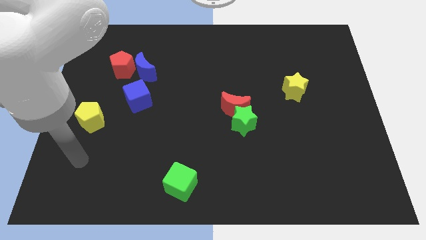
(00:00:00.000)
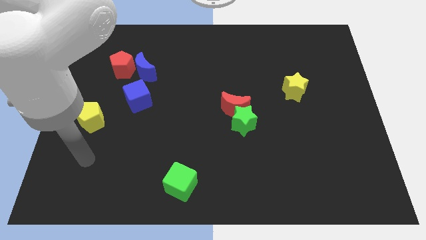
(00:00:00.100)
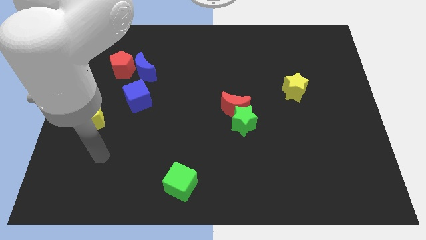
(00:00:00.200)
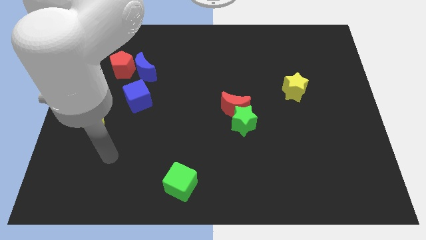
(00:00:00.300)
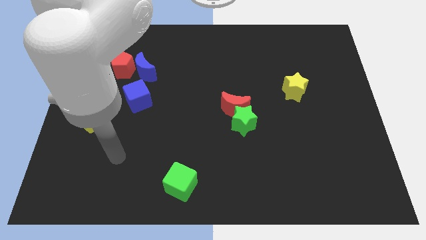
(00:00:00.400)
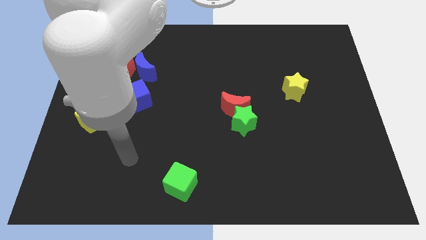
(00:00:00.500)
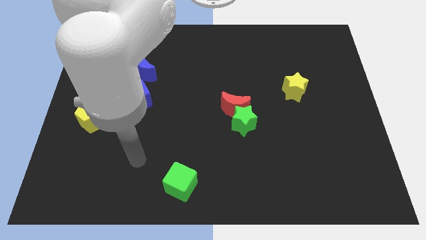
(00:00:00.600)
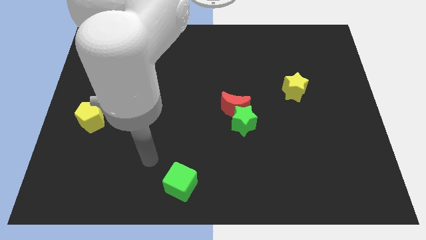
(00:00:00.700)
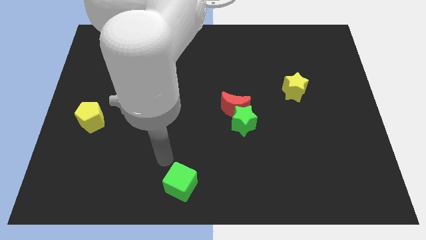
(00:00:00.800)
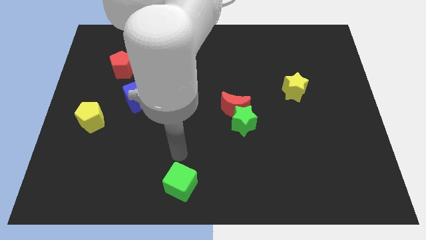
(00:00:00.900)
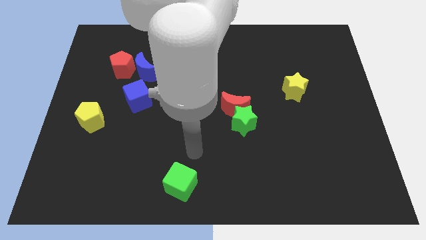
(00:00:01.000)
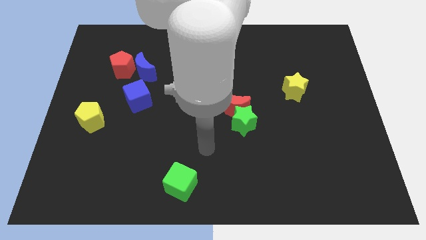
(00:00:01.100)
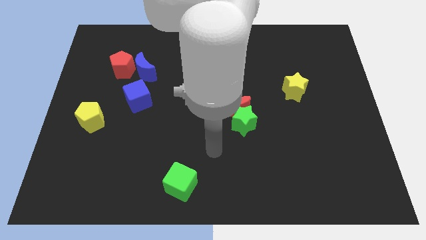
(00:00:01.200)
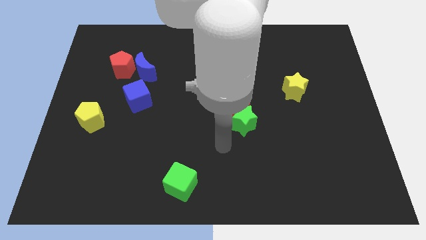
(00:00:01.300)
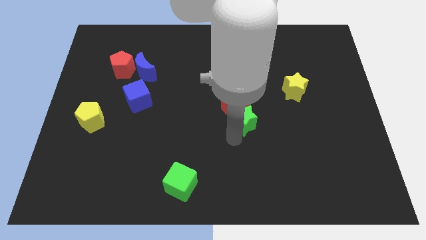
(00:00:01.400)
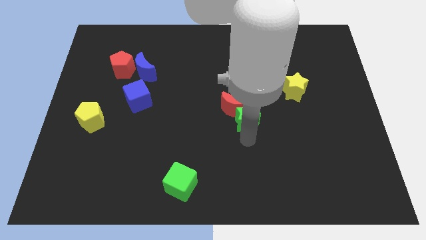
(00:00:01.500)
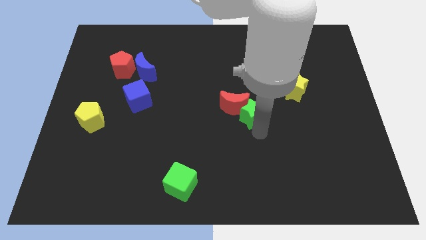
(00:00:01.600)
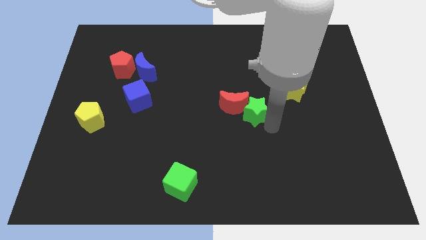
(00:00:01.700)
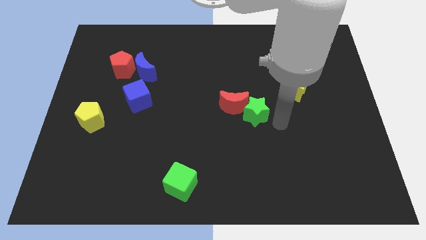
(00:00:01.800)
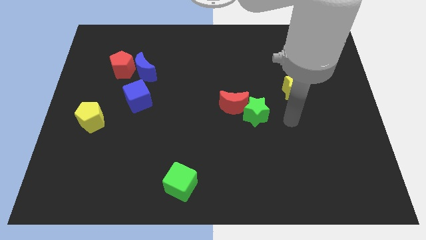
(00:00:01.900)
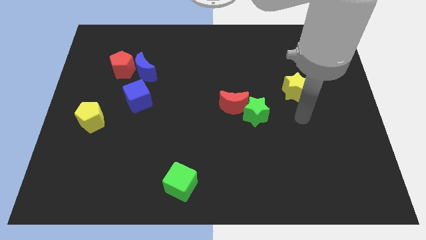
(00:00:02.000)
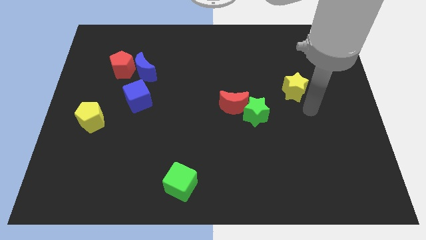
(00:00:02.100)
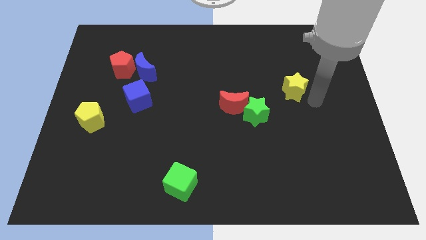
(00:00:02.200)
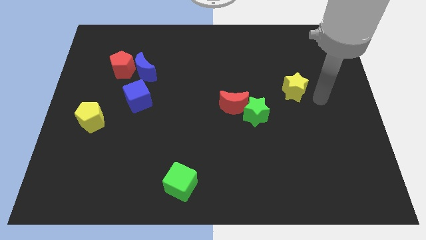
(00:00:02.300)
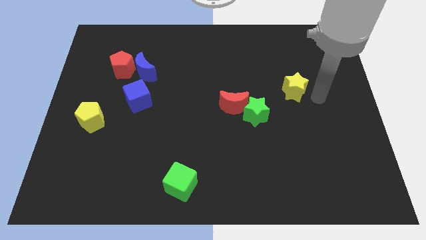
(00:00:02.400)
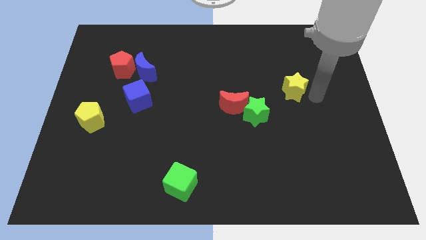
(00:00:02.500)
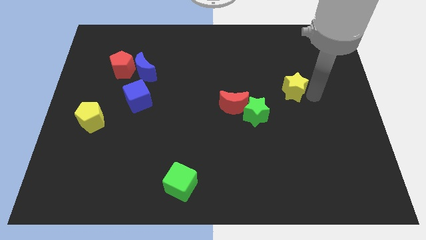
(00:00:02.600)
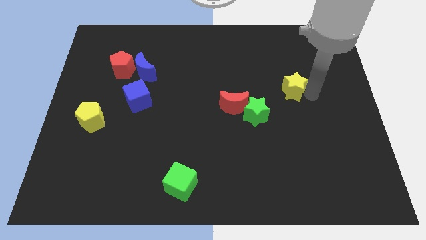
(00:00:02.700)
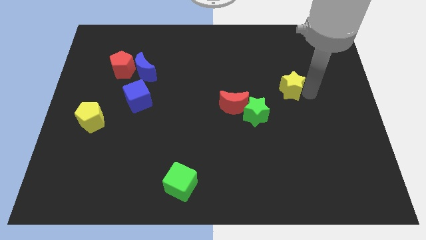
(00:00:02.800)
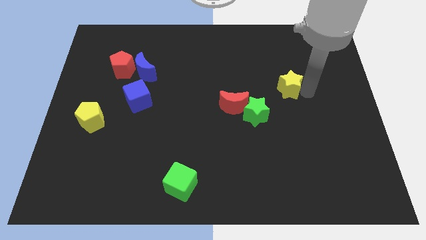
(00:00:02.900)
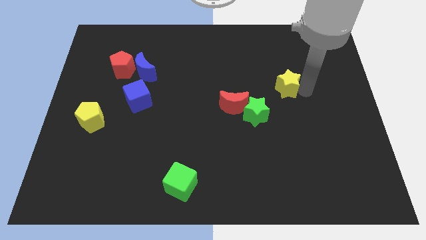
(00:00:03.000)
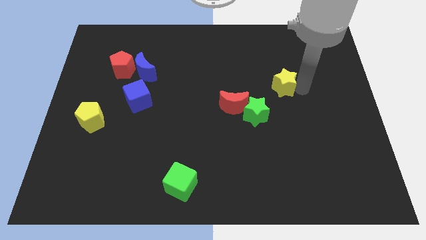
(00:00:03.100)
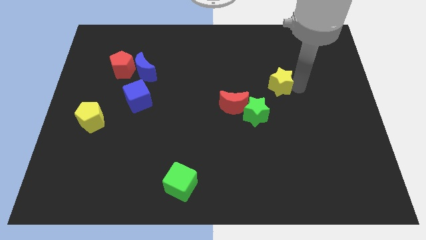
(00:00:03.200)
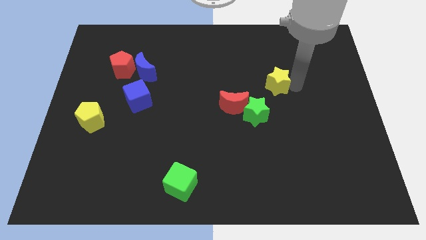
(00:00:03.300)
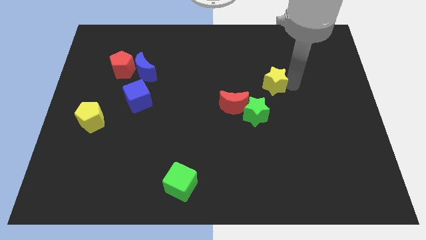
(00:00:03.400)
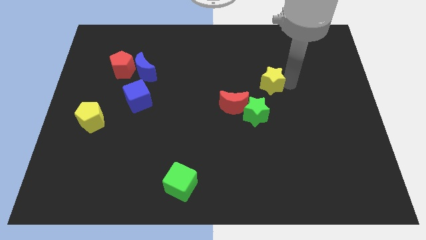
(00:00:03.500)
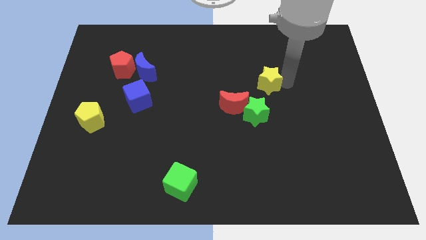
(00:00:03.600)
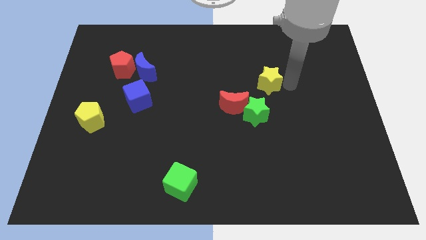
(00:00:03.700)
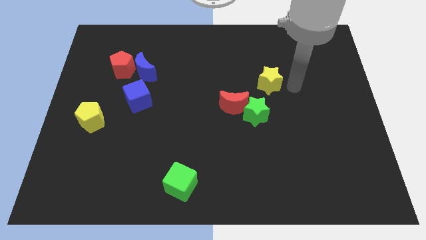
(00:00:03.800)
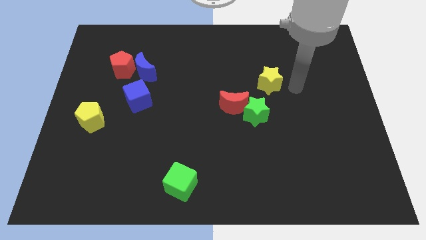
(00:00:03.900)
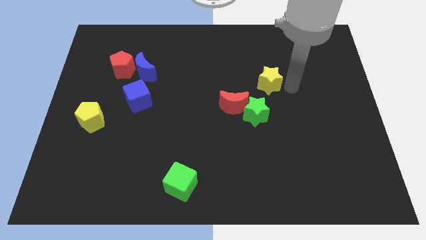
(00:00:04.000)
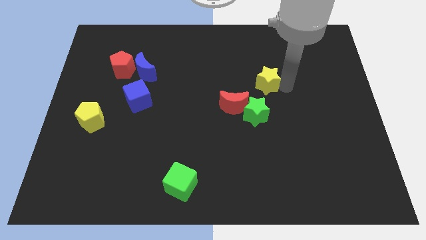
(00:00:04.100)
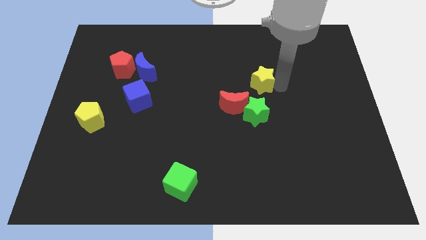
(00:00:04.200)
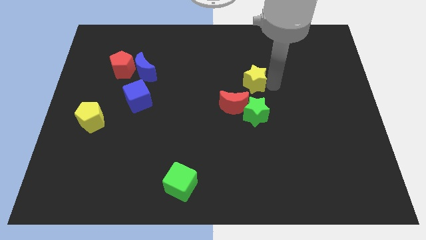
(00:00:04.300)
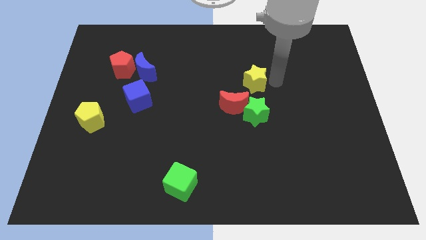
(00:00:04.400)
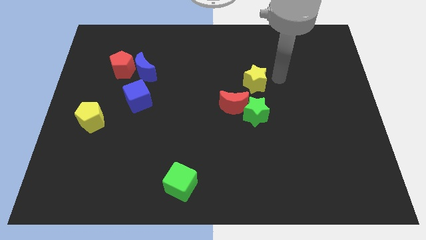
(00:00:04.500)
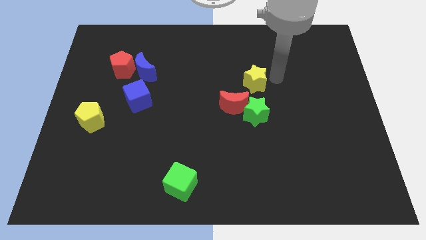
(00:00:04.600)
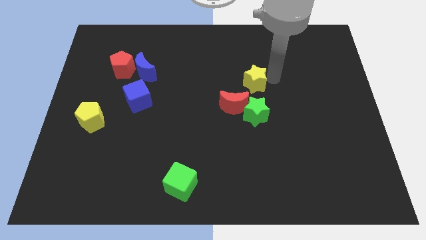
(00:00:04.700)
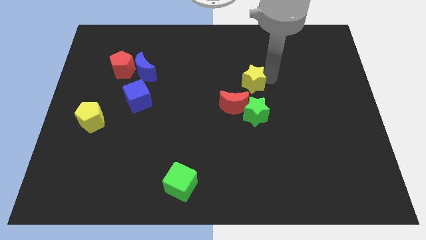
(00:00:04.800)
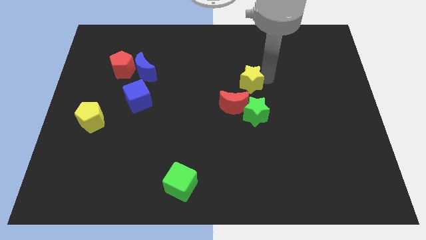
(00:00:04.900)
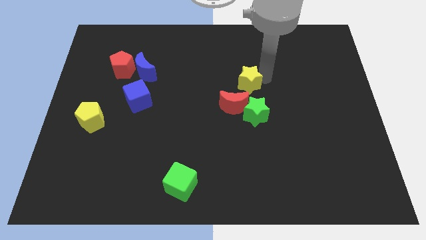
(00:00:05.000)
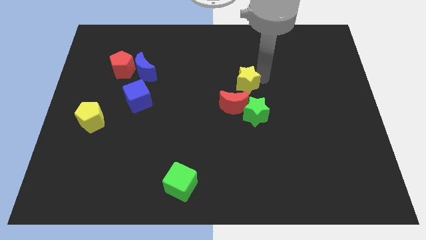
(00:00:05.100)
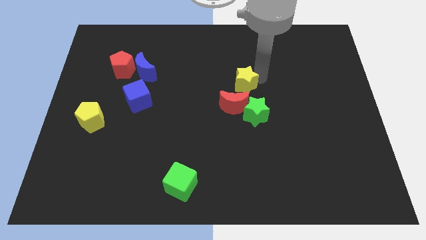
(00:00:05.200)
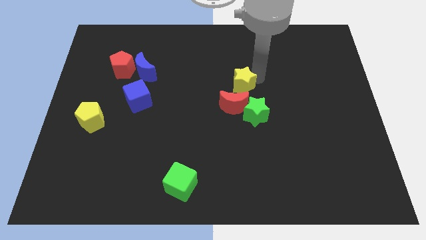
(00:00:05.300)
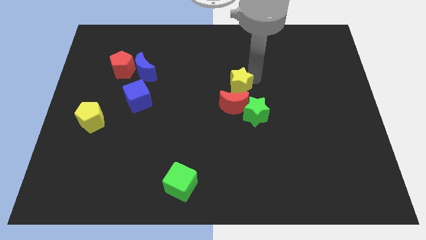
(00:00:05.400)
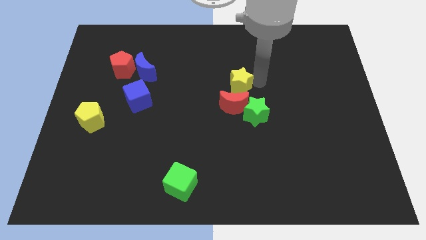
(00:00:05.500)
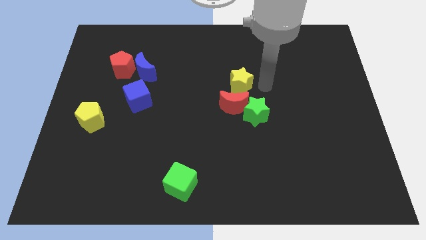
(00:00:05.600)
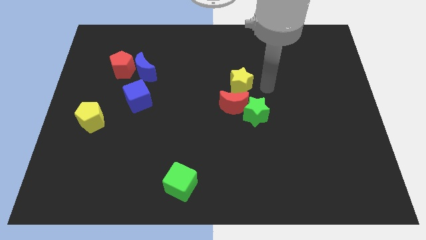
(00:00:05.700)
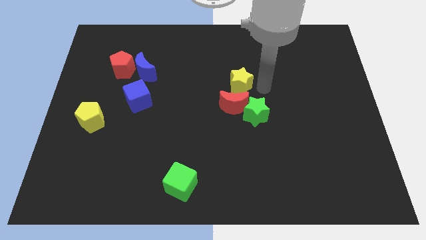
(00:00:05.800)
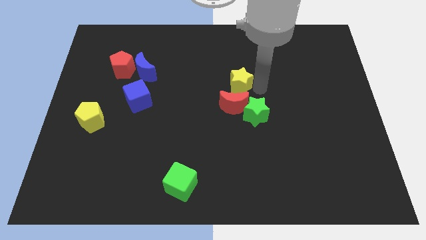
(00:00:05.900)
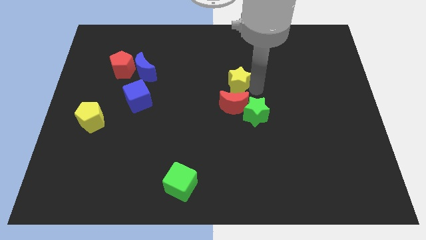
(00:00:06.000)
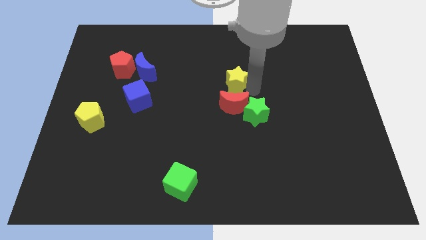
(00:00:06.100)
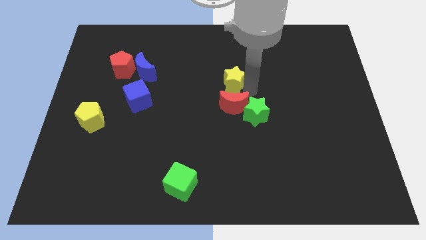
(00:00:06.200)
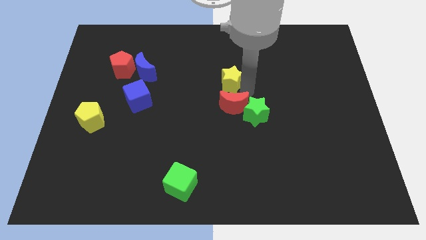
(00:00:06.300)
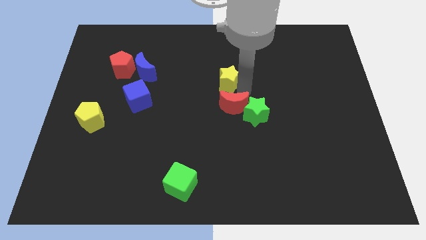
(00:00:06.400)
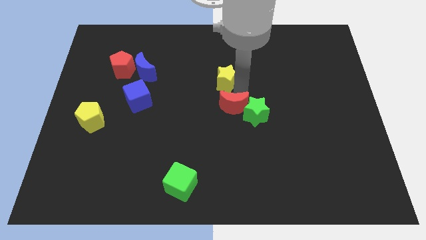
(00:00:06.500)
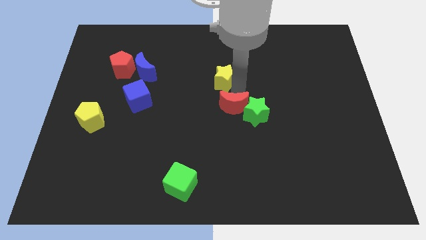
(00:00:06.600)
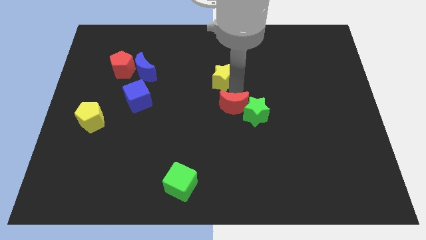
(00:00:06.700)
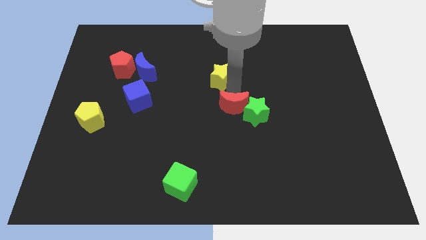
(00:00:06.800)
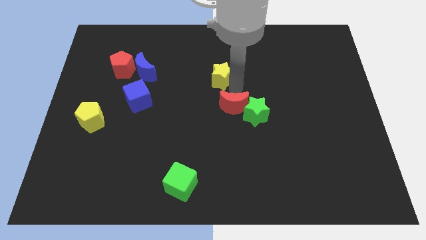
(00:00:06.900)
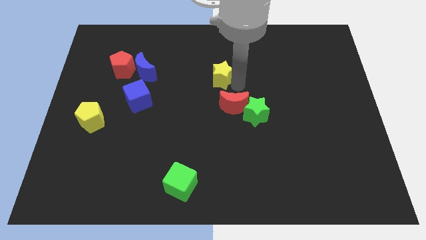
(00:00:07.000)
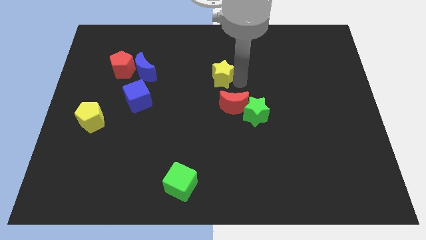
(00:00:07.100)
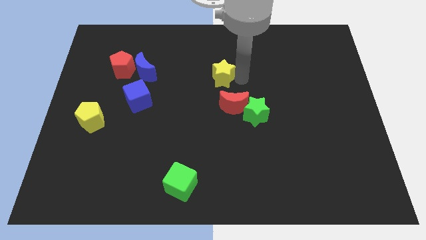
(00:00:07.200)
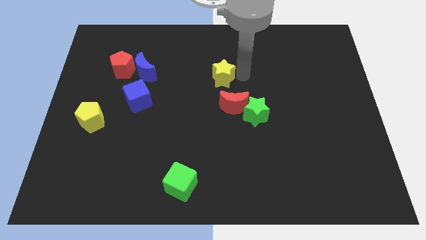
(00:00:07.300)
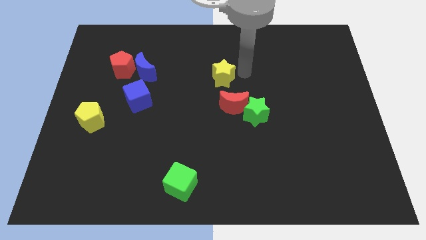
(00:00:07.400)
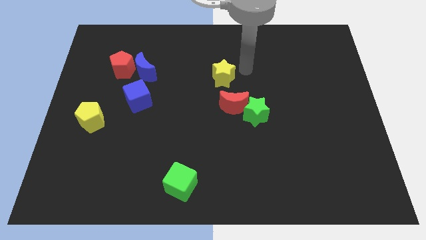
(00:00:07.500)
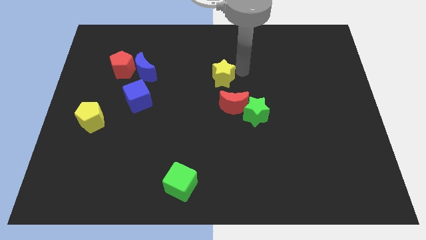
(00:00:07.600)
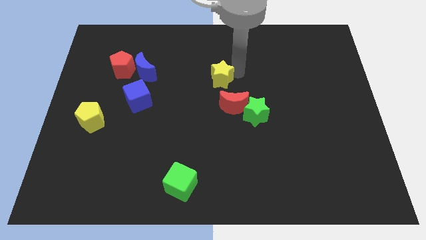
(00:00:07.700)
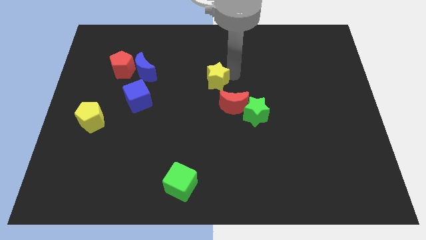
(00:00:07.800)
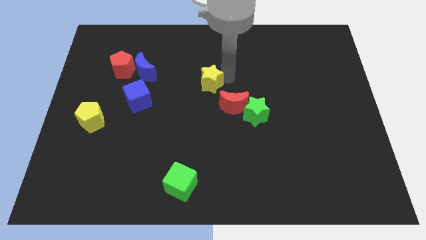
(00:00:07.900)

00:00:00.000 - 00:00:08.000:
move the yellow star to the left

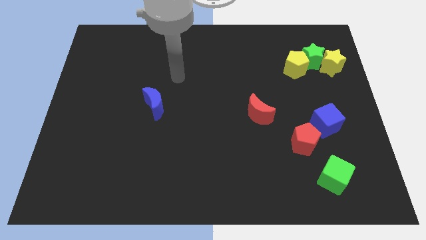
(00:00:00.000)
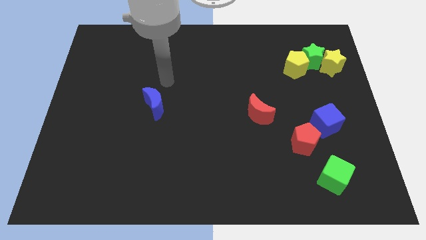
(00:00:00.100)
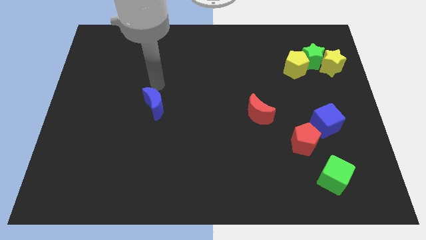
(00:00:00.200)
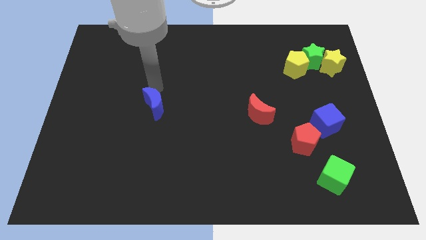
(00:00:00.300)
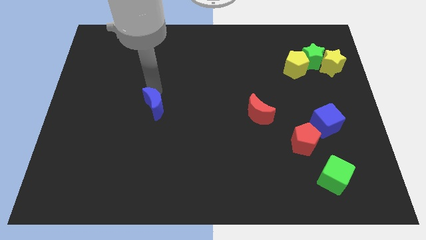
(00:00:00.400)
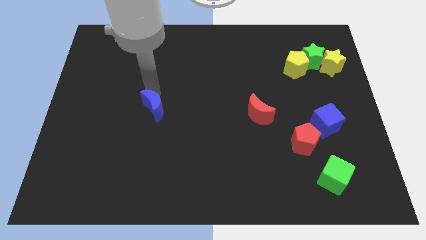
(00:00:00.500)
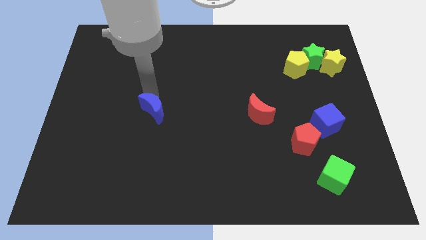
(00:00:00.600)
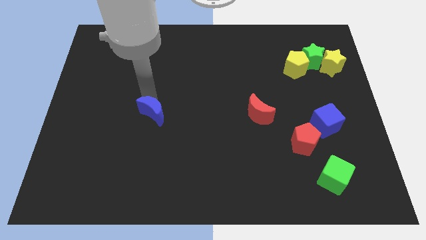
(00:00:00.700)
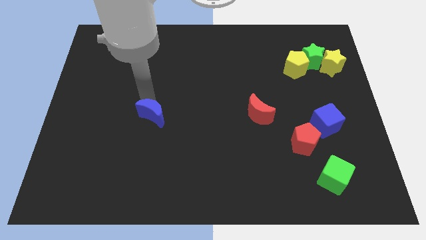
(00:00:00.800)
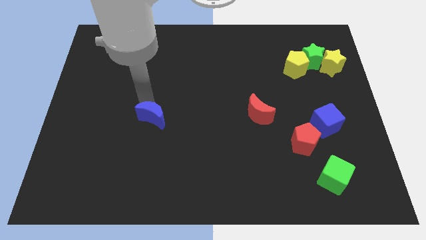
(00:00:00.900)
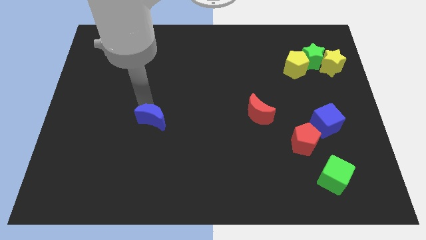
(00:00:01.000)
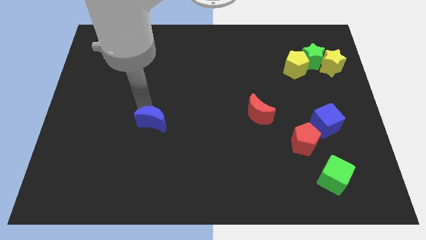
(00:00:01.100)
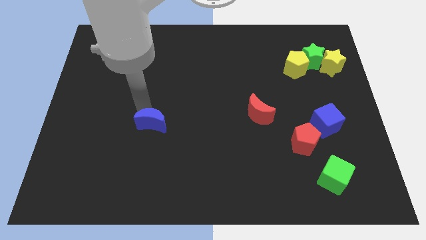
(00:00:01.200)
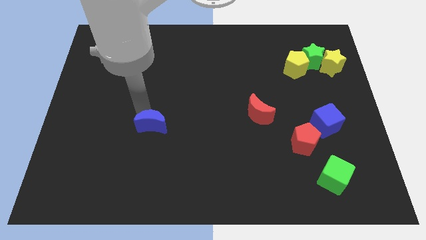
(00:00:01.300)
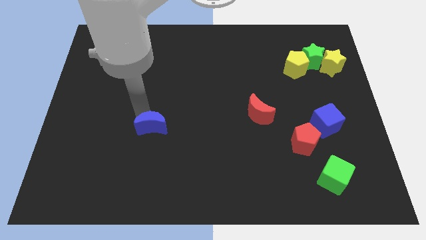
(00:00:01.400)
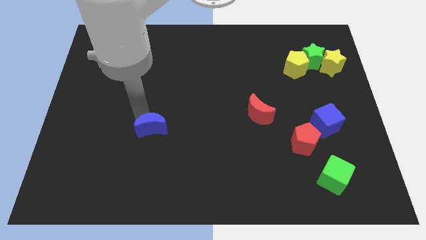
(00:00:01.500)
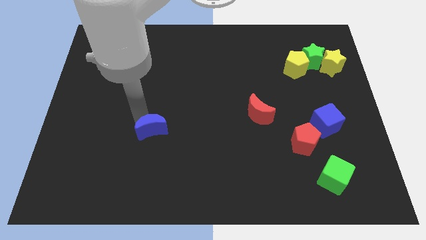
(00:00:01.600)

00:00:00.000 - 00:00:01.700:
slightly slide the blue moon down
